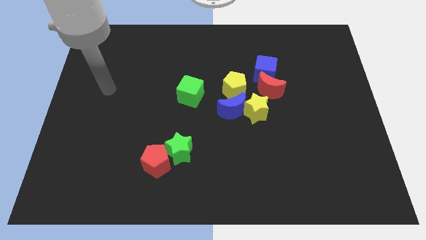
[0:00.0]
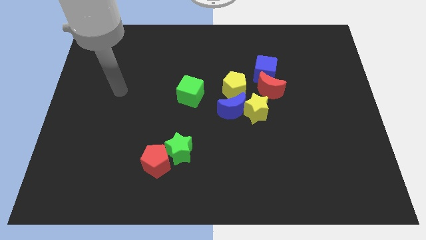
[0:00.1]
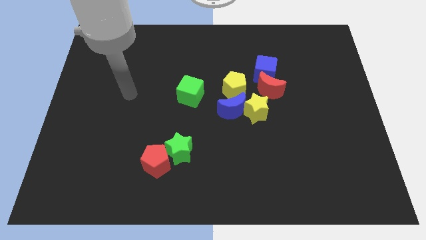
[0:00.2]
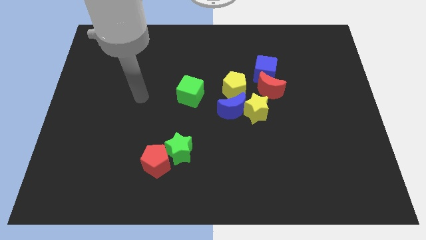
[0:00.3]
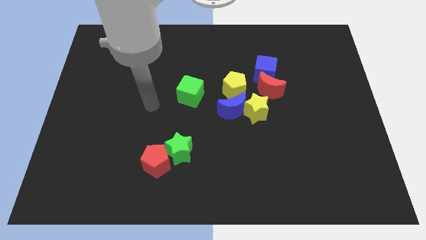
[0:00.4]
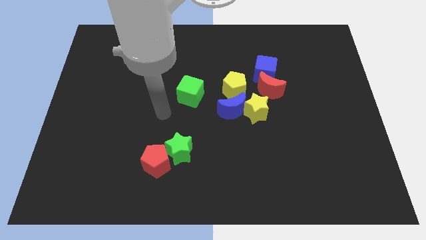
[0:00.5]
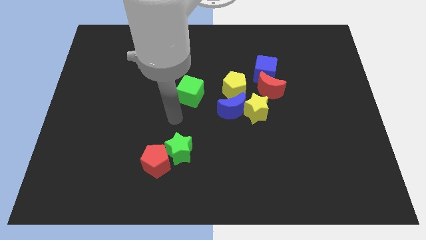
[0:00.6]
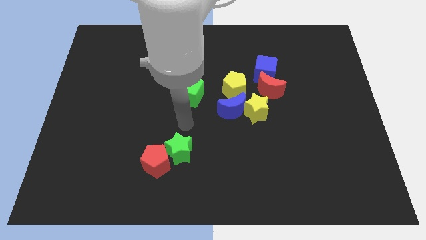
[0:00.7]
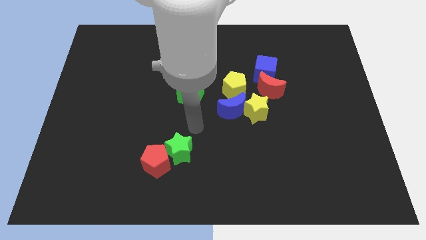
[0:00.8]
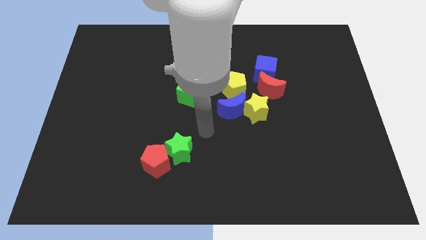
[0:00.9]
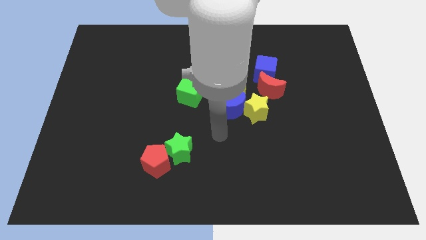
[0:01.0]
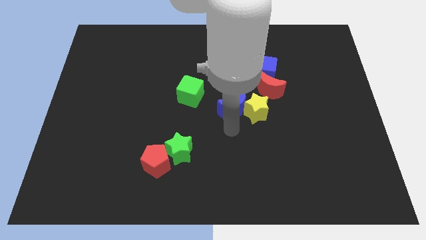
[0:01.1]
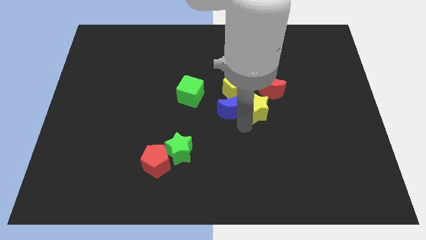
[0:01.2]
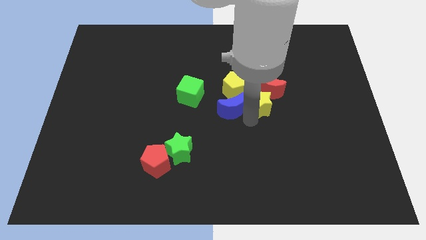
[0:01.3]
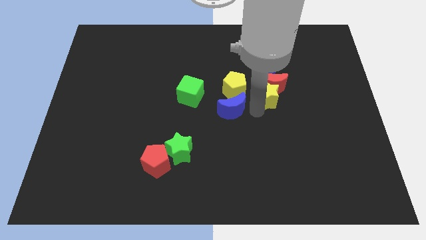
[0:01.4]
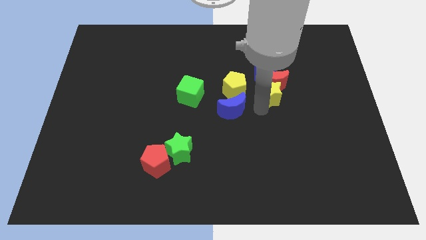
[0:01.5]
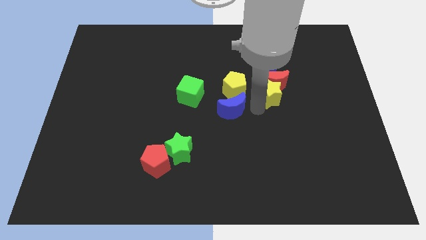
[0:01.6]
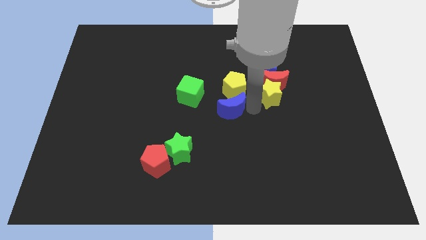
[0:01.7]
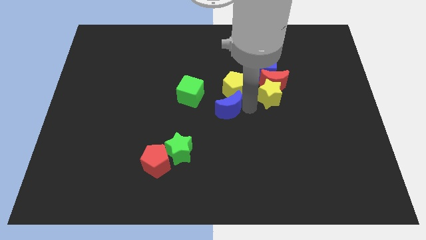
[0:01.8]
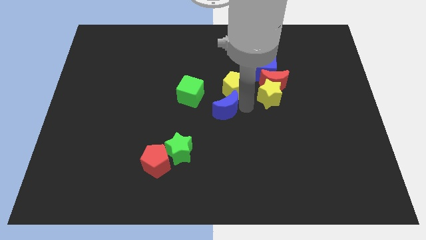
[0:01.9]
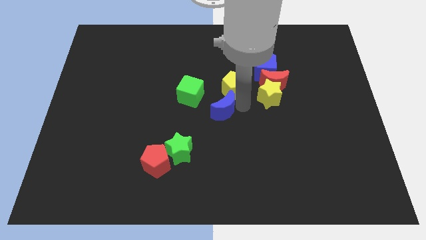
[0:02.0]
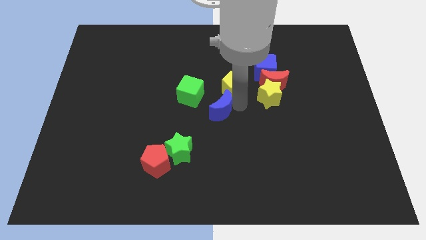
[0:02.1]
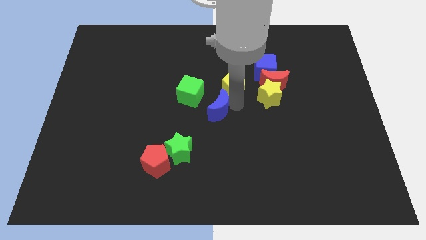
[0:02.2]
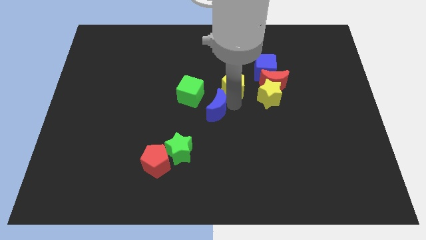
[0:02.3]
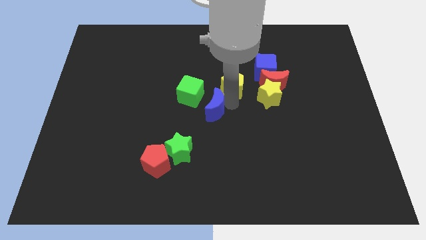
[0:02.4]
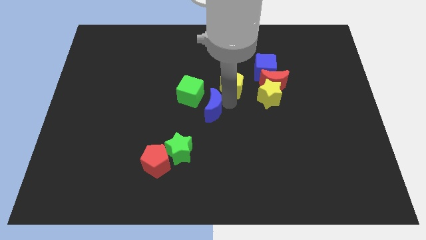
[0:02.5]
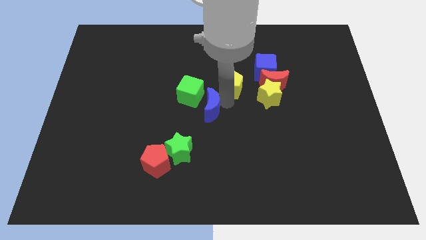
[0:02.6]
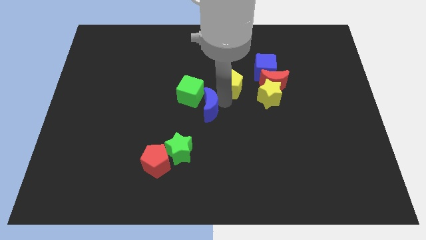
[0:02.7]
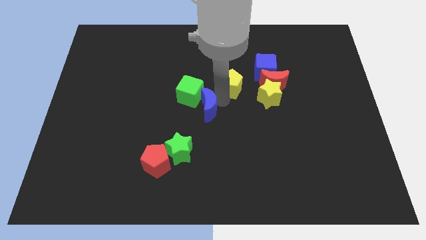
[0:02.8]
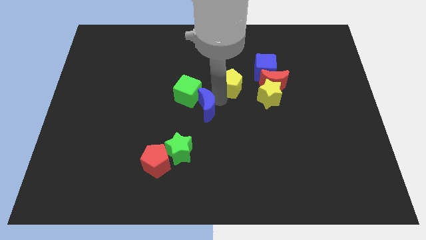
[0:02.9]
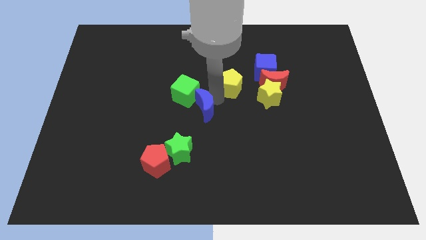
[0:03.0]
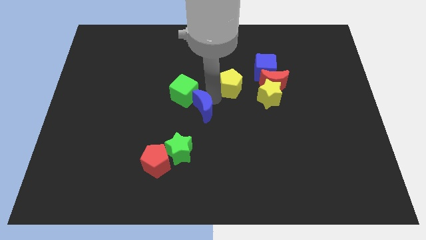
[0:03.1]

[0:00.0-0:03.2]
move the blue moon left a bit

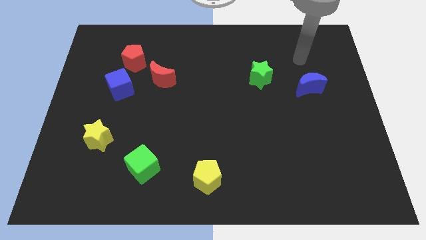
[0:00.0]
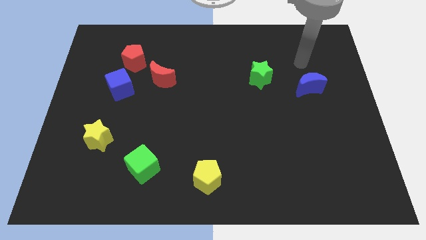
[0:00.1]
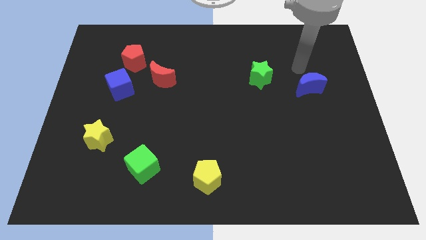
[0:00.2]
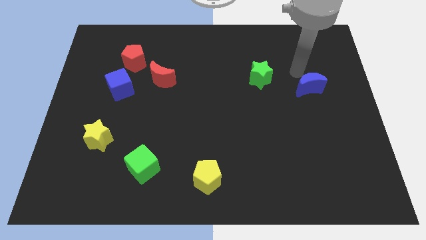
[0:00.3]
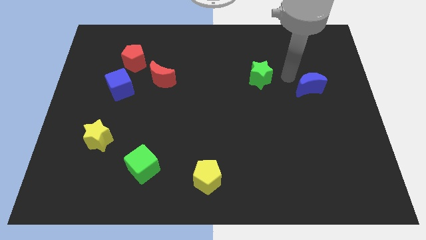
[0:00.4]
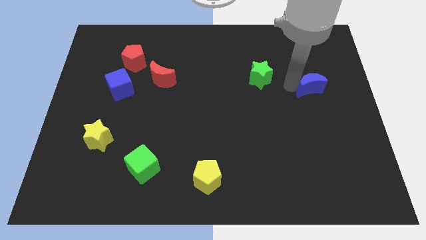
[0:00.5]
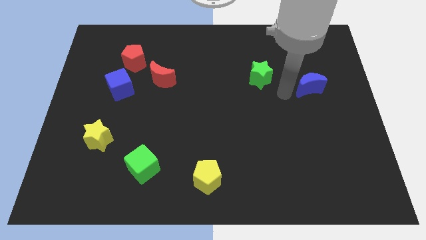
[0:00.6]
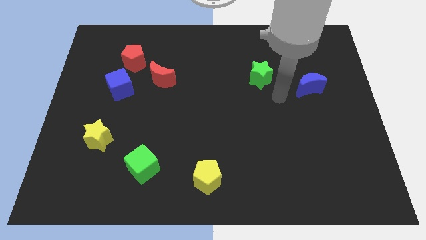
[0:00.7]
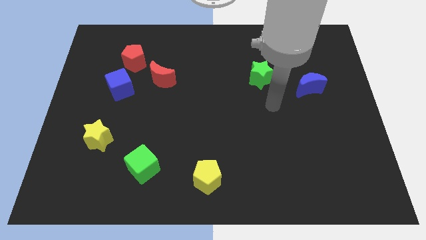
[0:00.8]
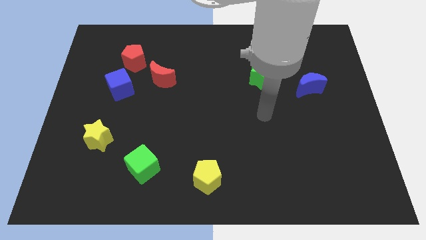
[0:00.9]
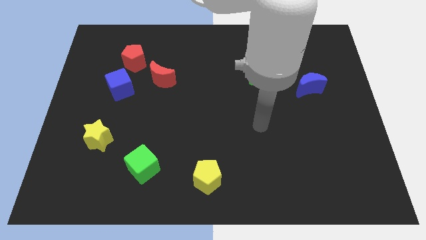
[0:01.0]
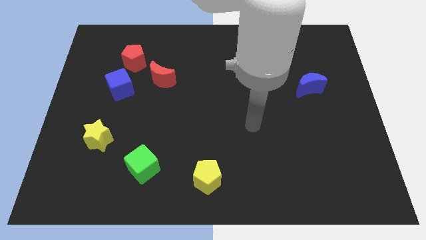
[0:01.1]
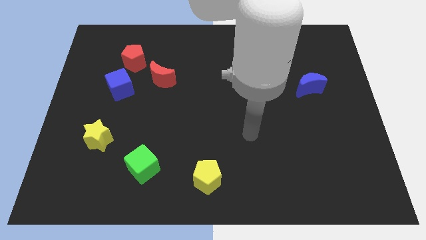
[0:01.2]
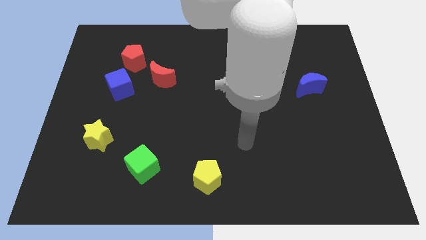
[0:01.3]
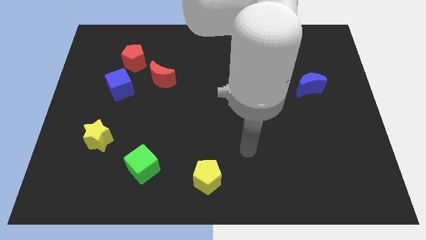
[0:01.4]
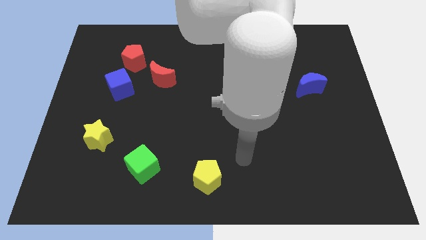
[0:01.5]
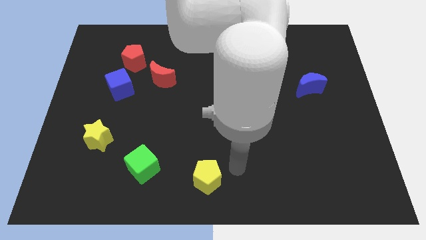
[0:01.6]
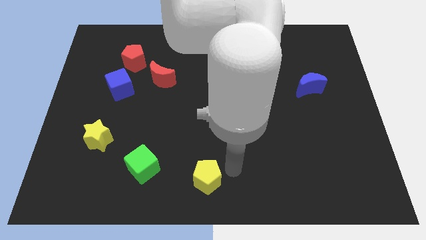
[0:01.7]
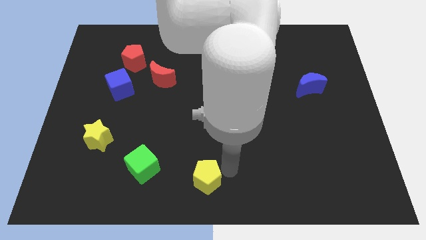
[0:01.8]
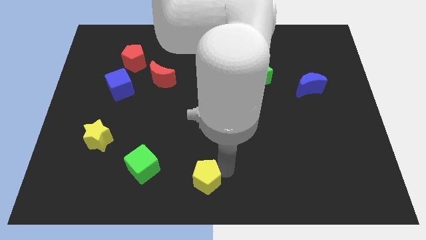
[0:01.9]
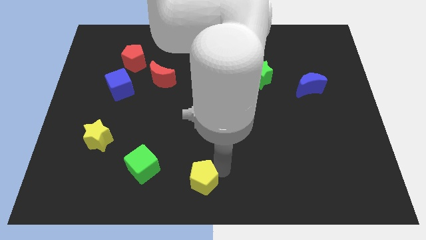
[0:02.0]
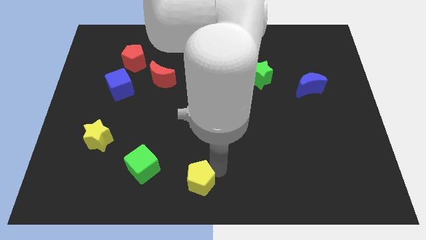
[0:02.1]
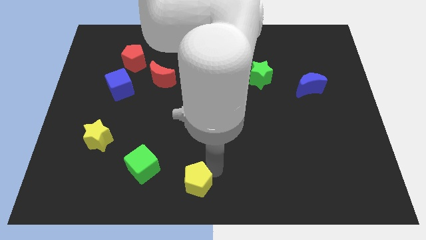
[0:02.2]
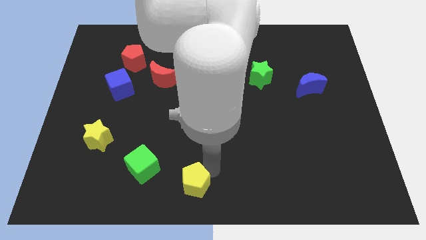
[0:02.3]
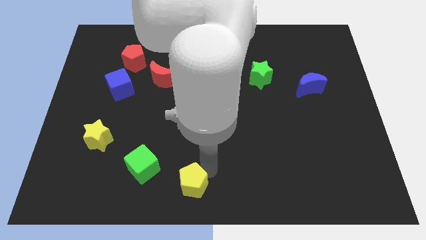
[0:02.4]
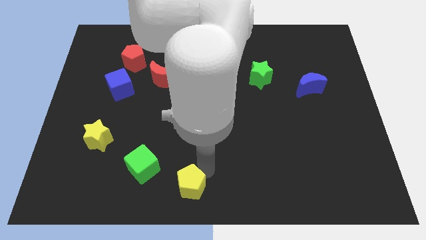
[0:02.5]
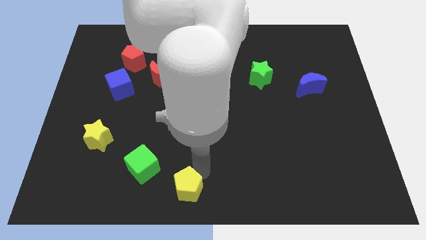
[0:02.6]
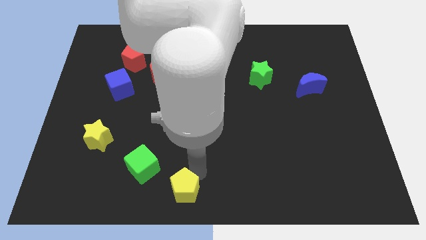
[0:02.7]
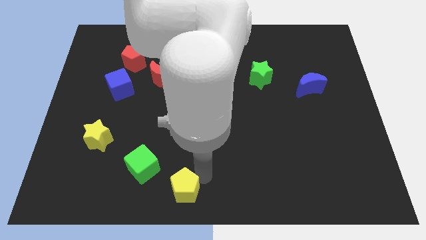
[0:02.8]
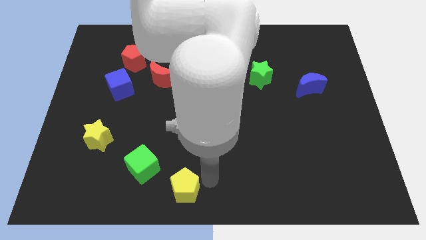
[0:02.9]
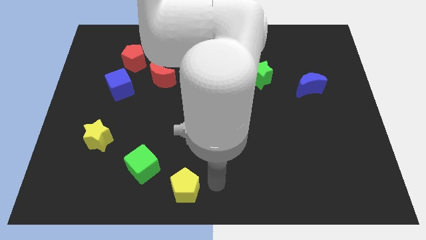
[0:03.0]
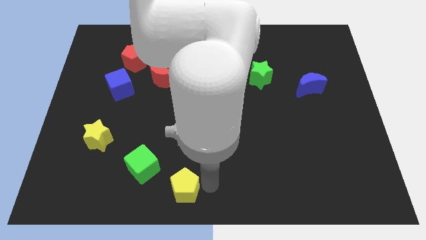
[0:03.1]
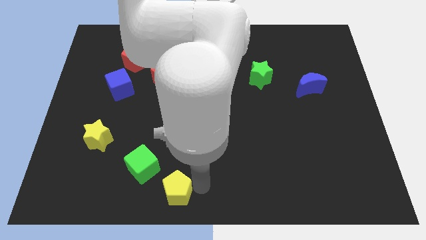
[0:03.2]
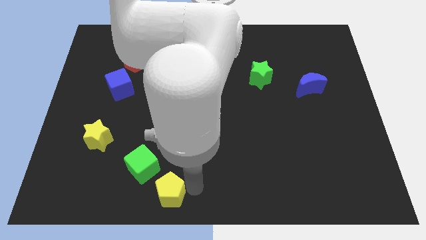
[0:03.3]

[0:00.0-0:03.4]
slightly slide the yellow pentagon left

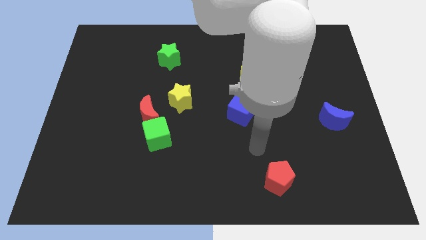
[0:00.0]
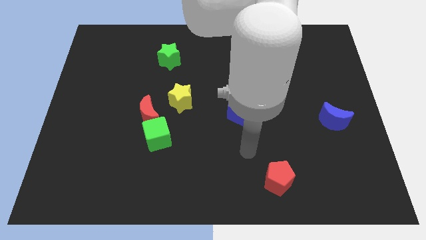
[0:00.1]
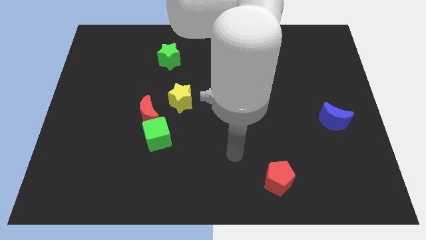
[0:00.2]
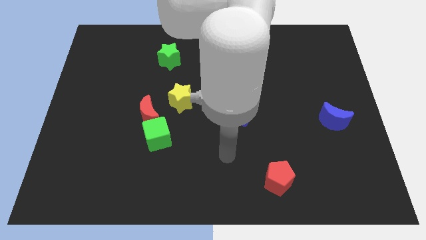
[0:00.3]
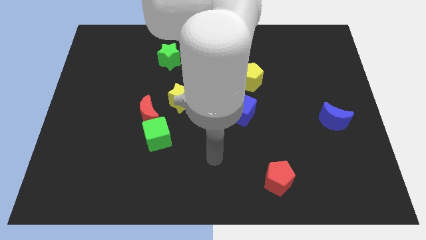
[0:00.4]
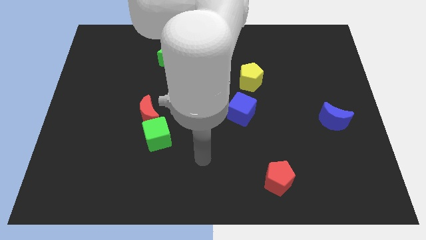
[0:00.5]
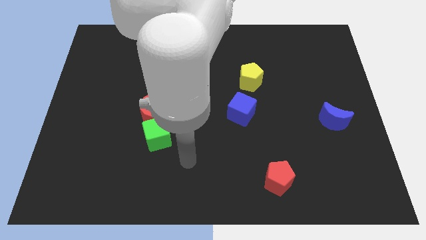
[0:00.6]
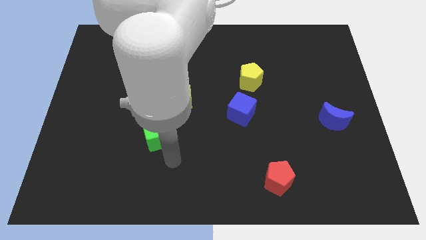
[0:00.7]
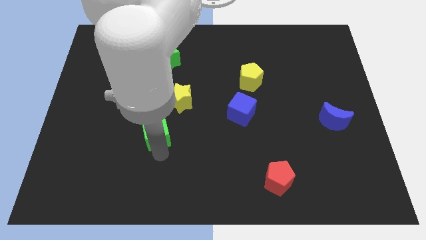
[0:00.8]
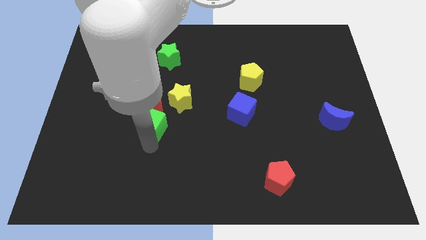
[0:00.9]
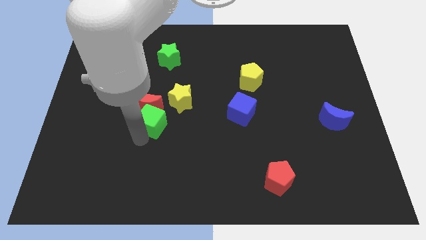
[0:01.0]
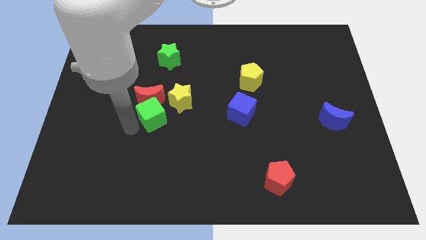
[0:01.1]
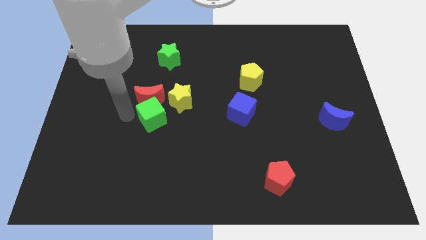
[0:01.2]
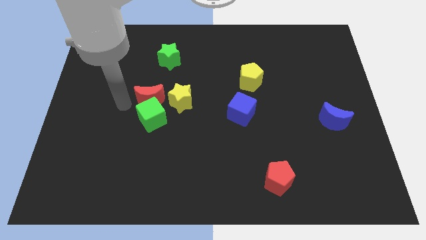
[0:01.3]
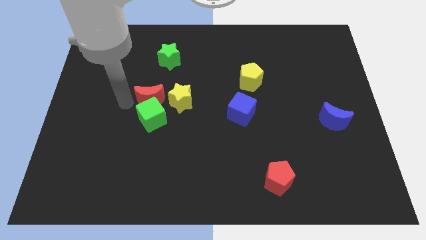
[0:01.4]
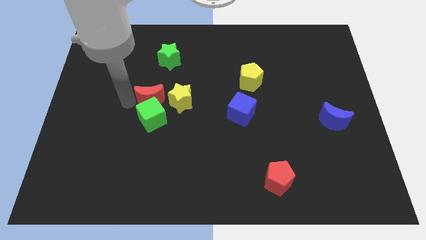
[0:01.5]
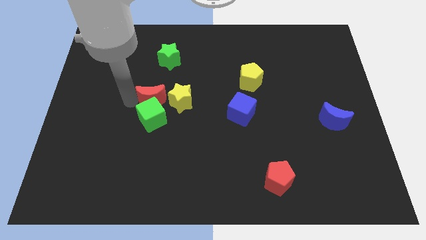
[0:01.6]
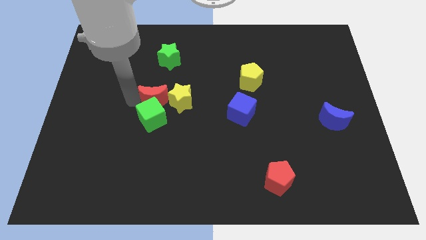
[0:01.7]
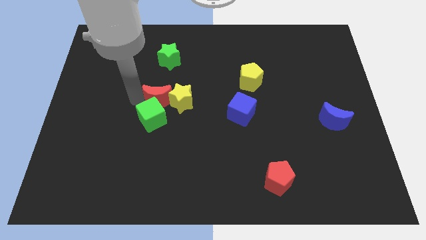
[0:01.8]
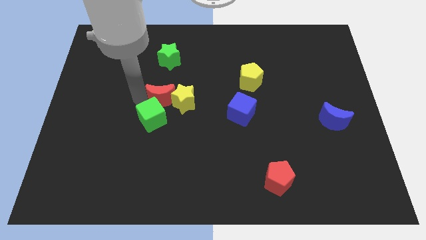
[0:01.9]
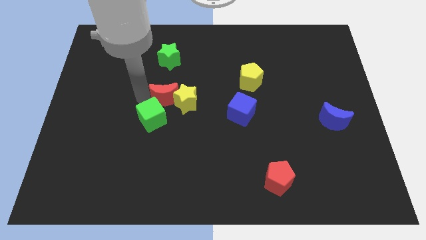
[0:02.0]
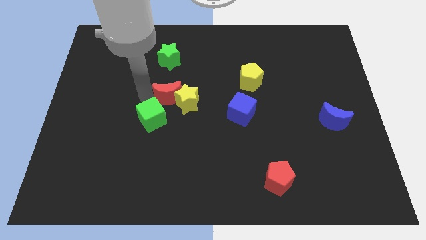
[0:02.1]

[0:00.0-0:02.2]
slightly push the red moon upwards and right
